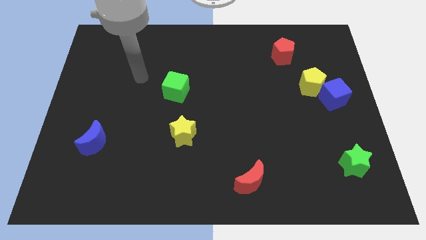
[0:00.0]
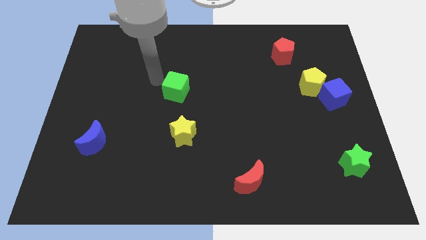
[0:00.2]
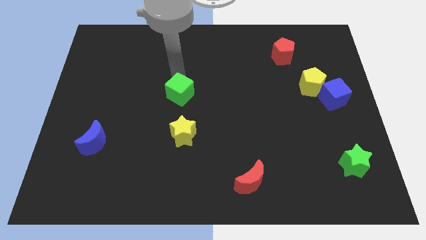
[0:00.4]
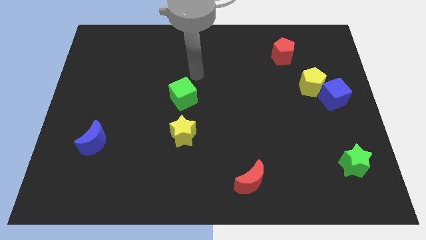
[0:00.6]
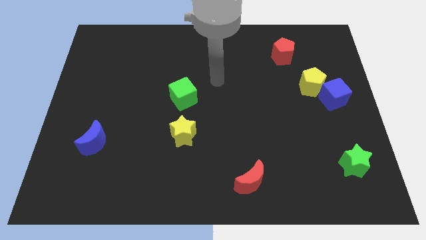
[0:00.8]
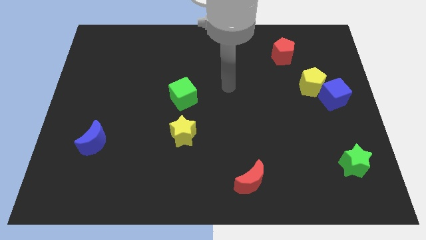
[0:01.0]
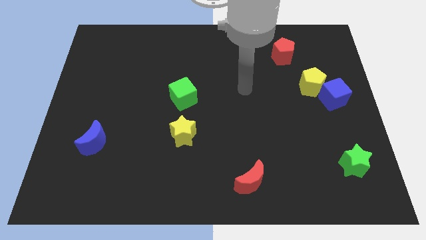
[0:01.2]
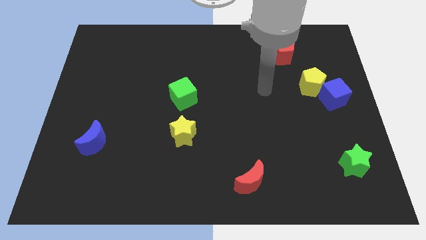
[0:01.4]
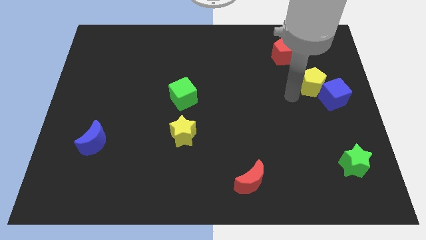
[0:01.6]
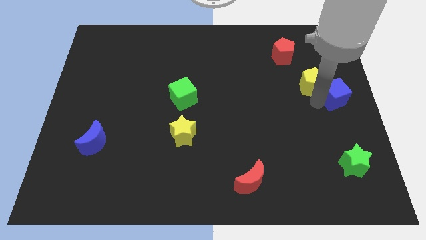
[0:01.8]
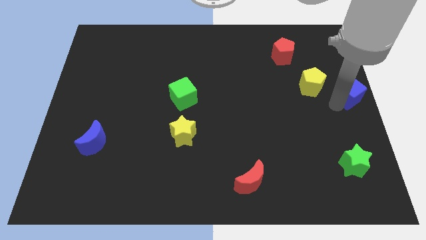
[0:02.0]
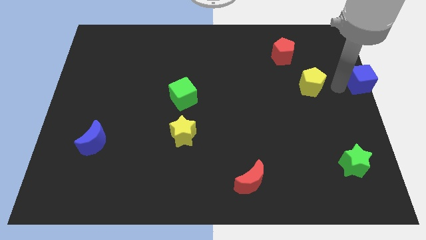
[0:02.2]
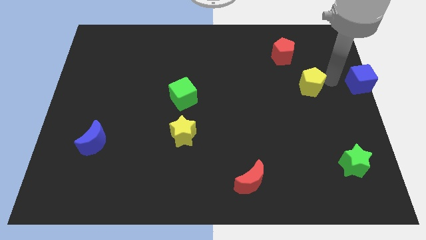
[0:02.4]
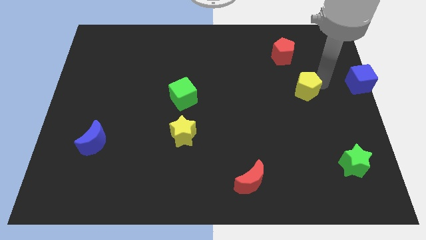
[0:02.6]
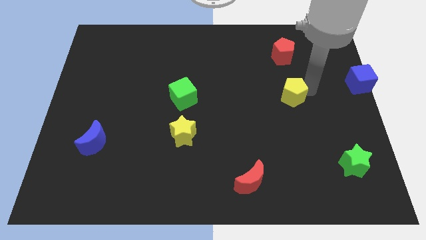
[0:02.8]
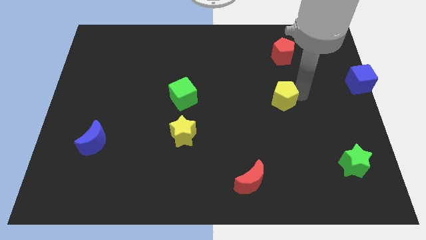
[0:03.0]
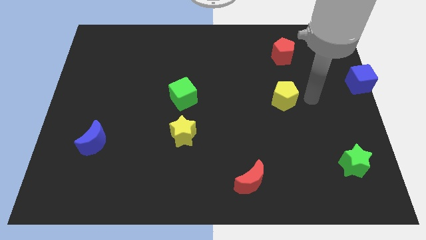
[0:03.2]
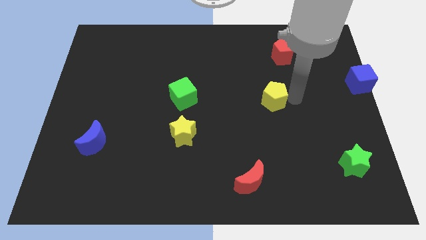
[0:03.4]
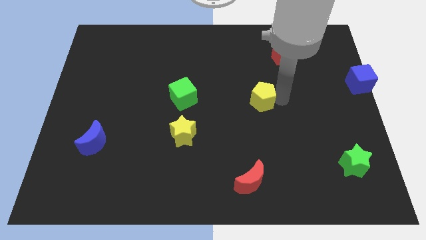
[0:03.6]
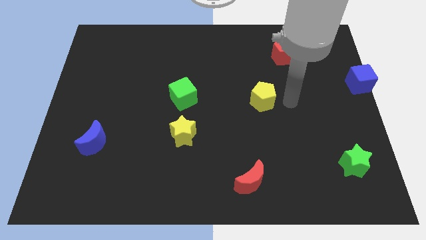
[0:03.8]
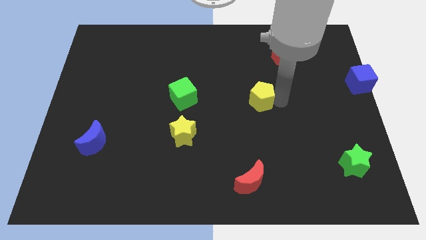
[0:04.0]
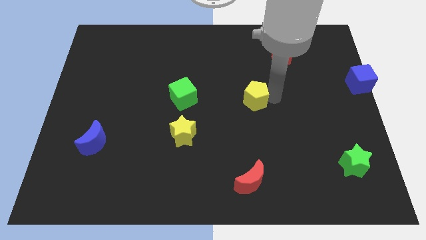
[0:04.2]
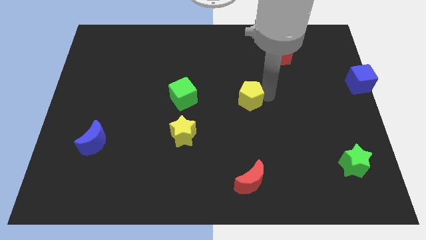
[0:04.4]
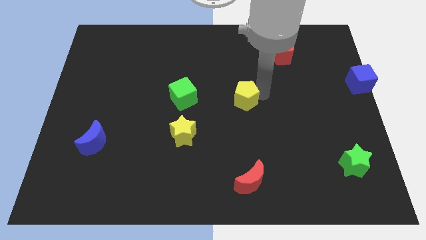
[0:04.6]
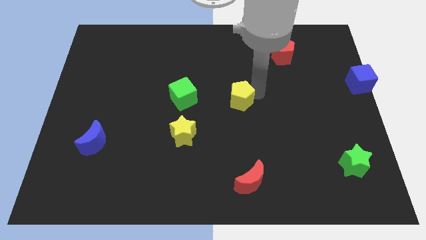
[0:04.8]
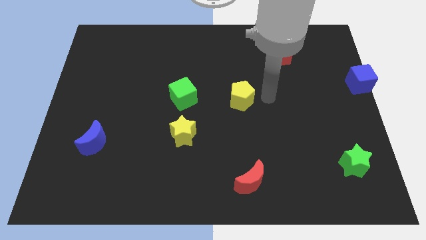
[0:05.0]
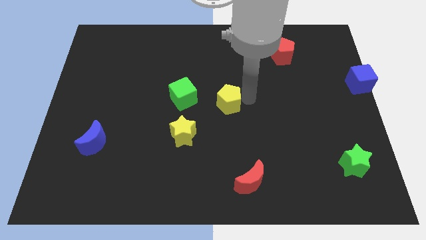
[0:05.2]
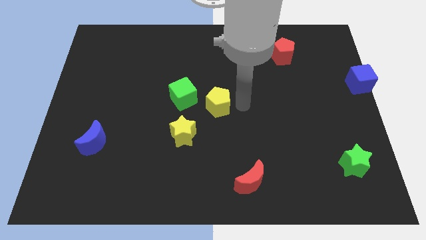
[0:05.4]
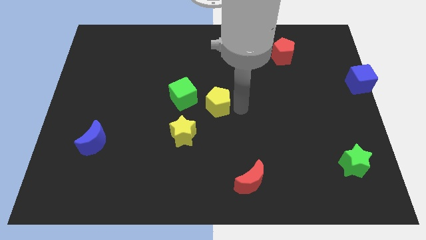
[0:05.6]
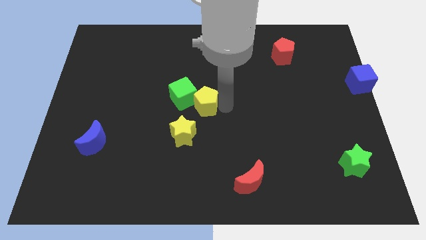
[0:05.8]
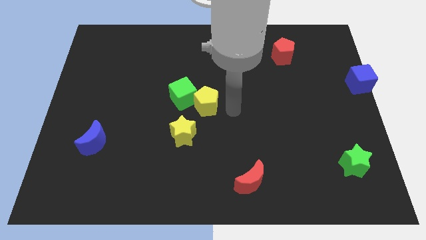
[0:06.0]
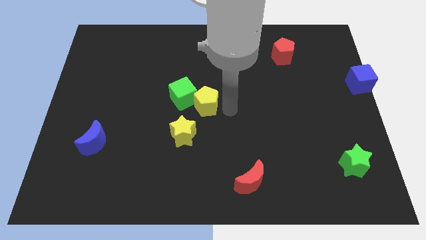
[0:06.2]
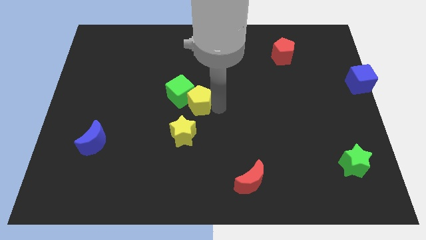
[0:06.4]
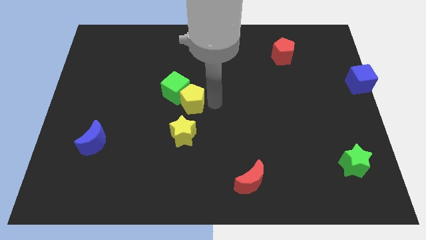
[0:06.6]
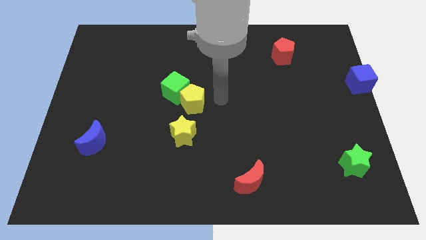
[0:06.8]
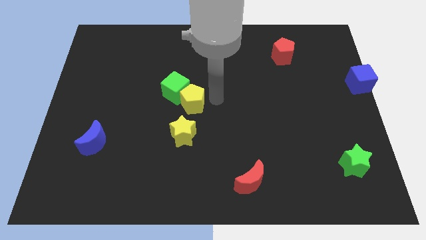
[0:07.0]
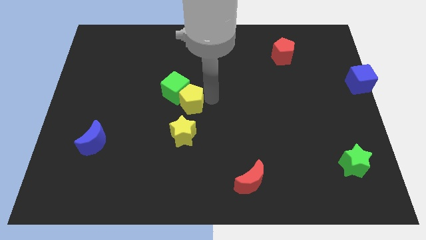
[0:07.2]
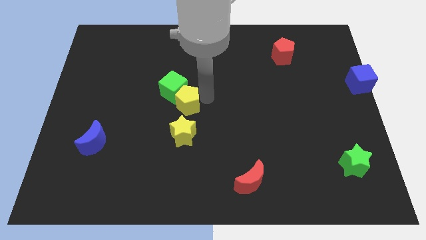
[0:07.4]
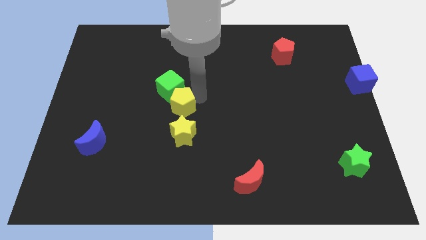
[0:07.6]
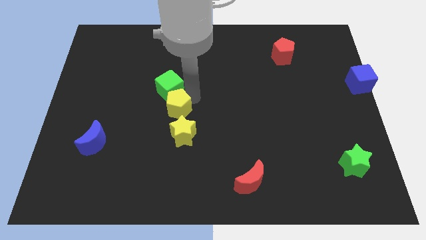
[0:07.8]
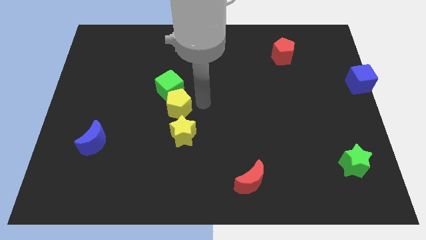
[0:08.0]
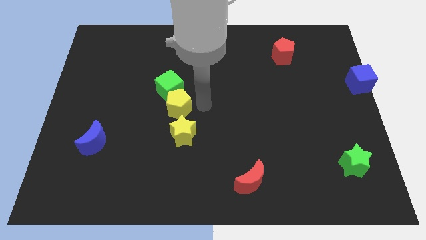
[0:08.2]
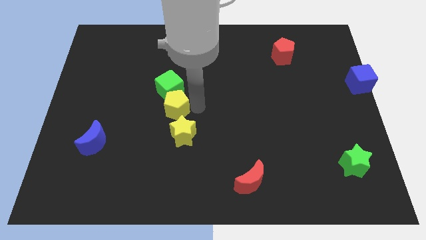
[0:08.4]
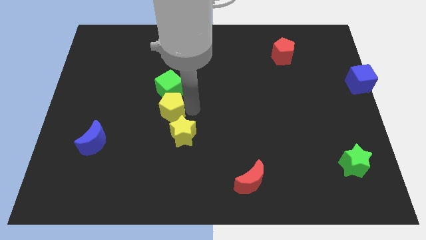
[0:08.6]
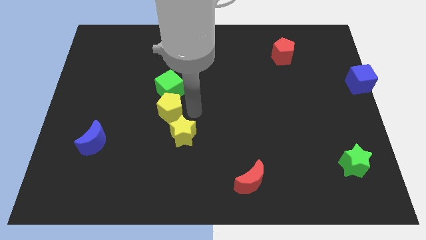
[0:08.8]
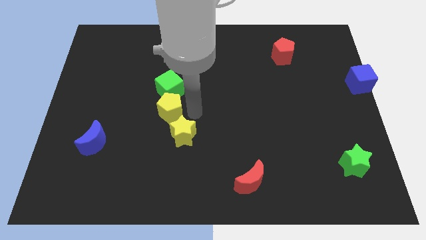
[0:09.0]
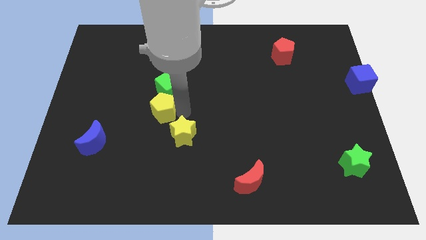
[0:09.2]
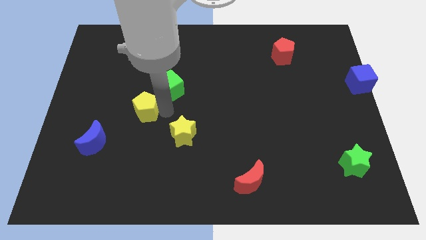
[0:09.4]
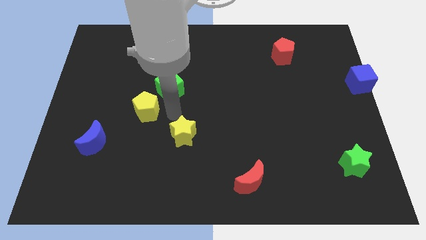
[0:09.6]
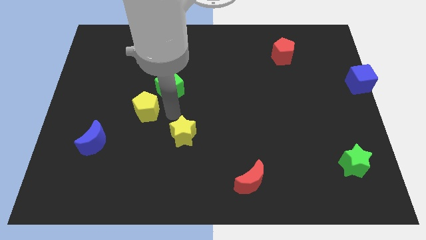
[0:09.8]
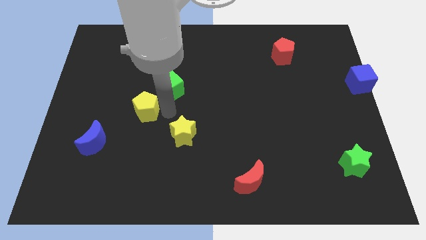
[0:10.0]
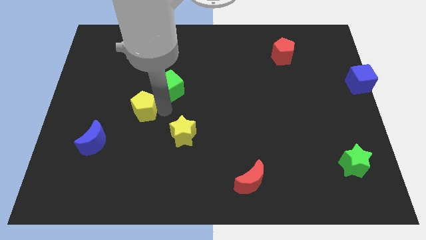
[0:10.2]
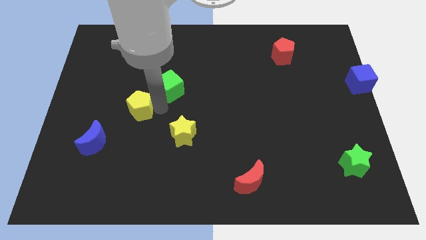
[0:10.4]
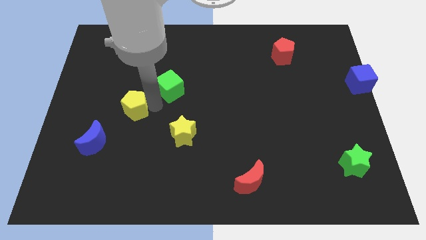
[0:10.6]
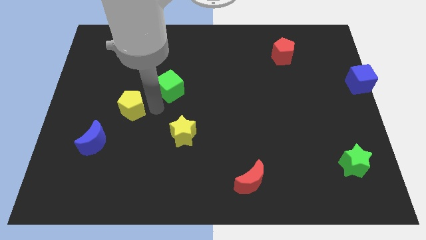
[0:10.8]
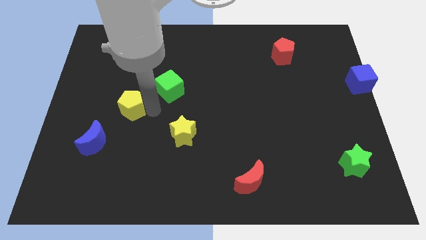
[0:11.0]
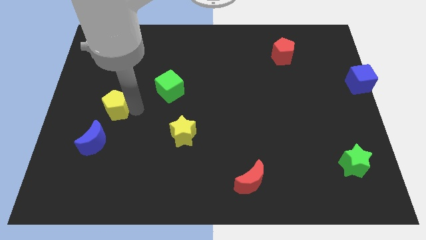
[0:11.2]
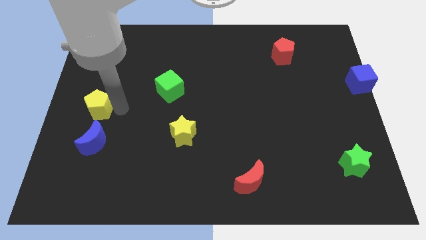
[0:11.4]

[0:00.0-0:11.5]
put the yellow pentagon to the left side
